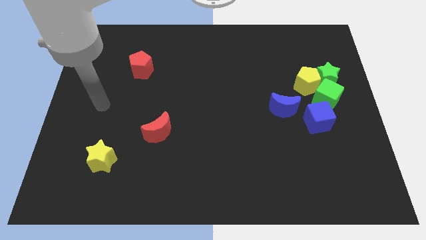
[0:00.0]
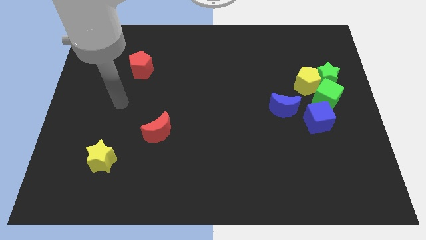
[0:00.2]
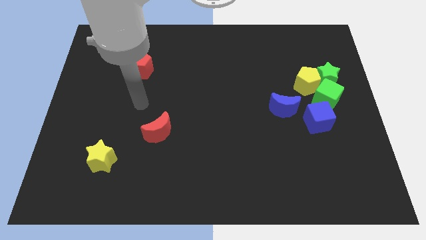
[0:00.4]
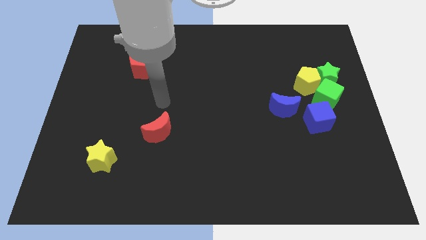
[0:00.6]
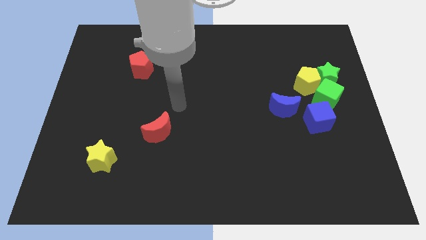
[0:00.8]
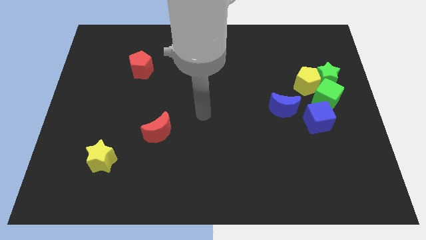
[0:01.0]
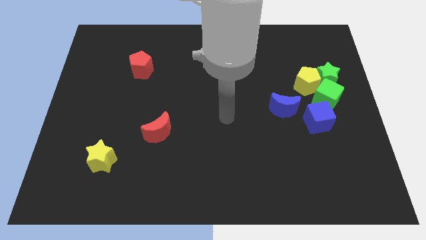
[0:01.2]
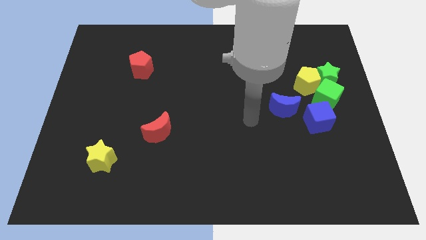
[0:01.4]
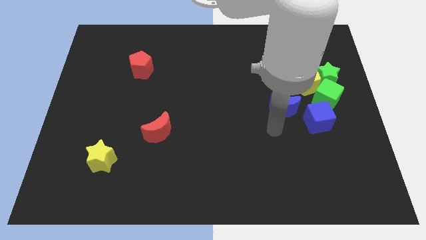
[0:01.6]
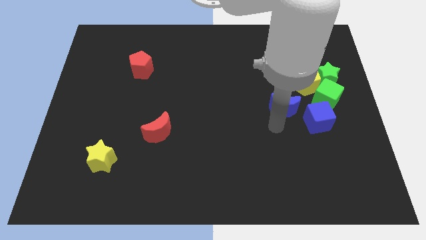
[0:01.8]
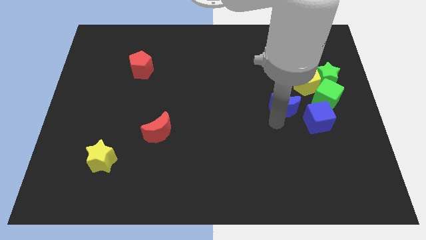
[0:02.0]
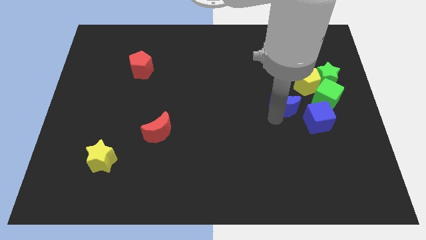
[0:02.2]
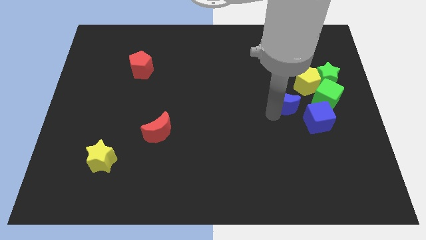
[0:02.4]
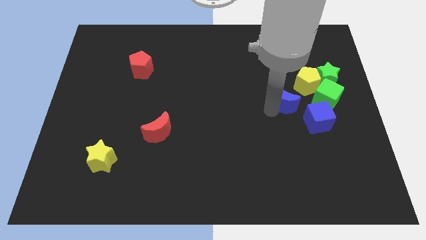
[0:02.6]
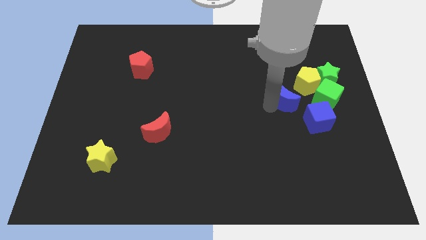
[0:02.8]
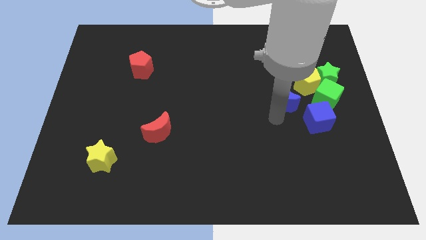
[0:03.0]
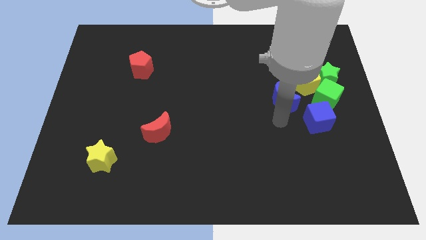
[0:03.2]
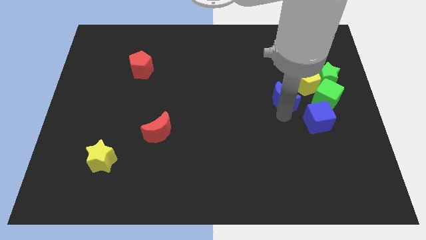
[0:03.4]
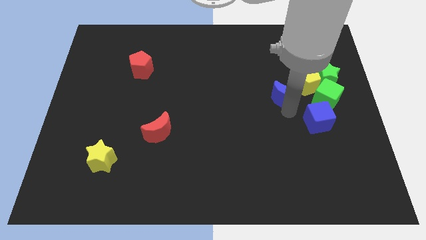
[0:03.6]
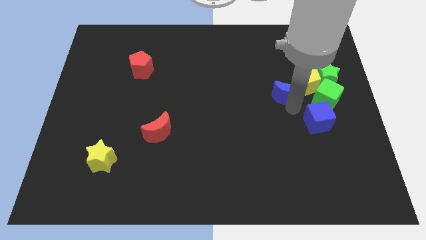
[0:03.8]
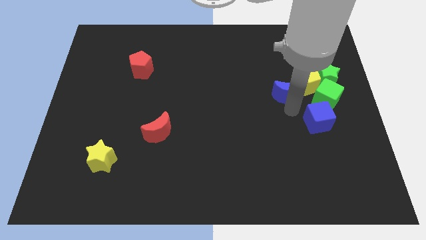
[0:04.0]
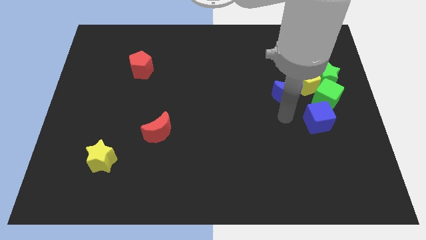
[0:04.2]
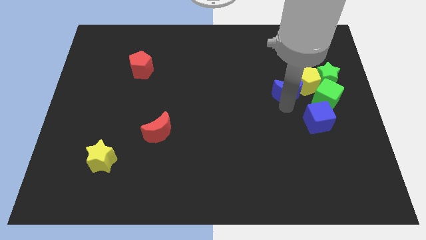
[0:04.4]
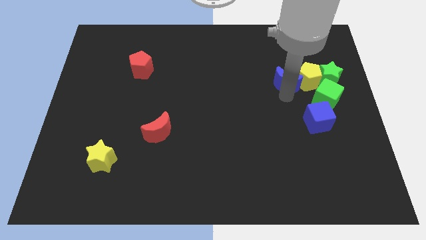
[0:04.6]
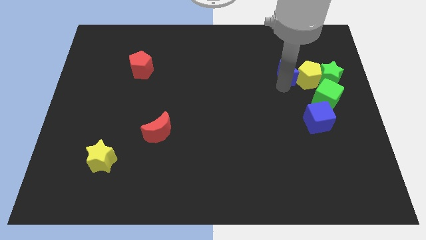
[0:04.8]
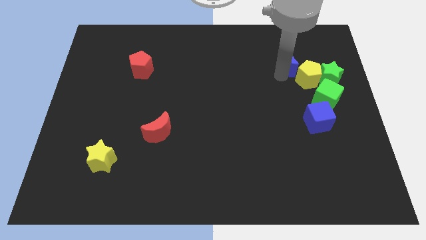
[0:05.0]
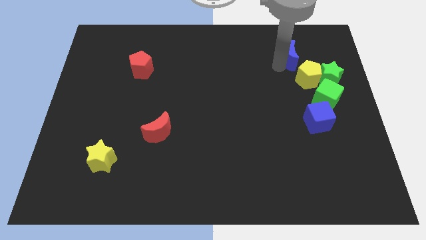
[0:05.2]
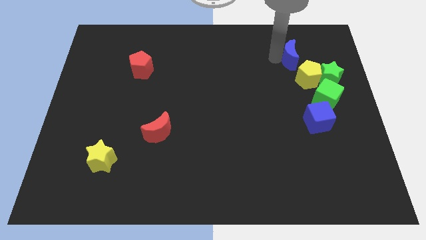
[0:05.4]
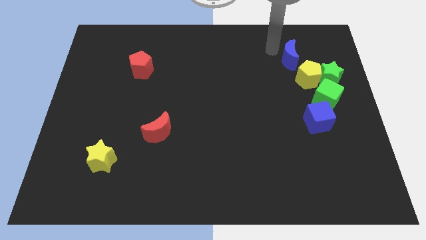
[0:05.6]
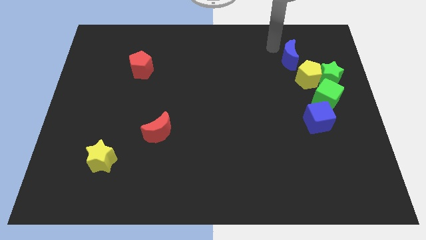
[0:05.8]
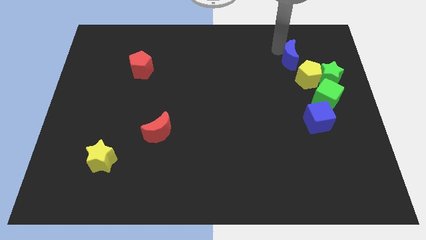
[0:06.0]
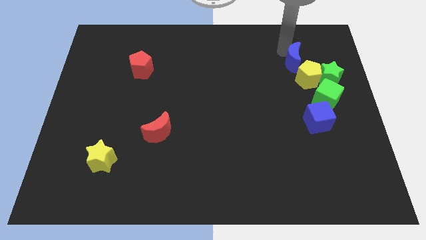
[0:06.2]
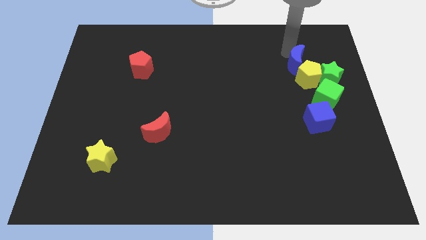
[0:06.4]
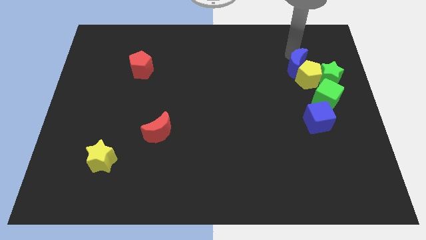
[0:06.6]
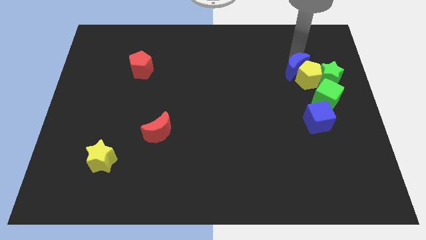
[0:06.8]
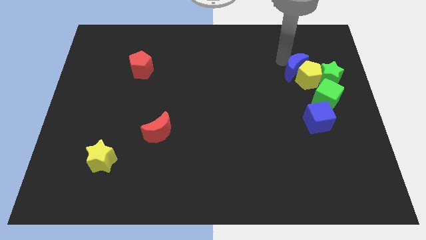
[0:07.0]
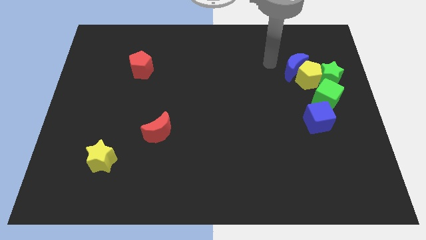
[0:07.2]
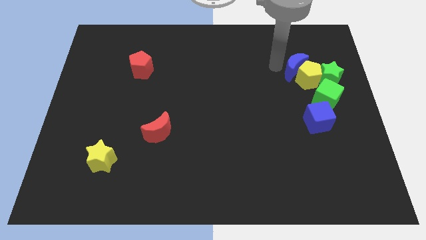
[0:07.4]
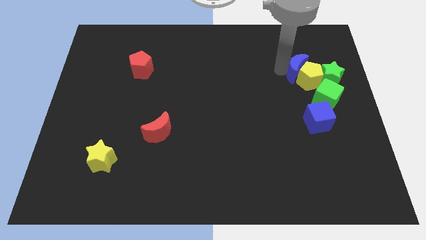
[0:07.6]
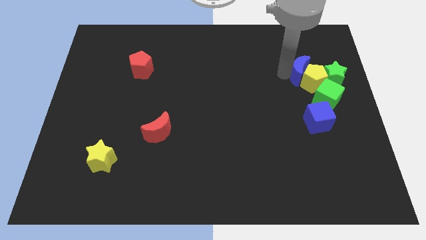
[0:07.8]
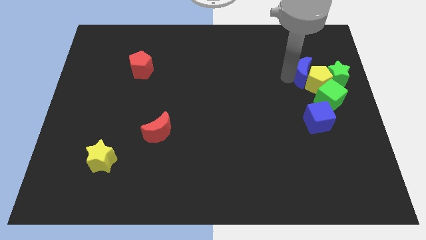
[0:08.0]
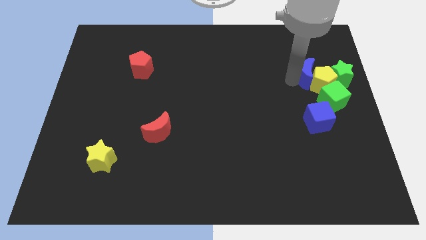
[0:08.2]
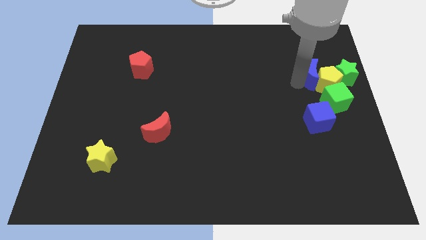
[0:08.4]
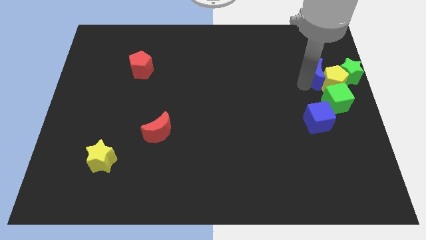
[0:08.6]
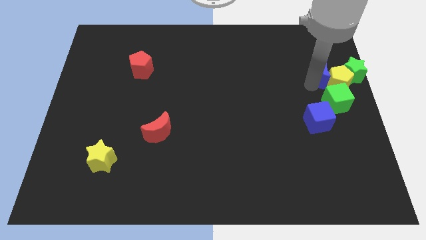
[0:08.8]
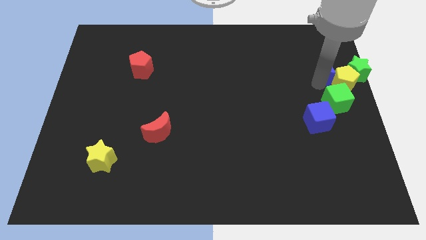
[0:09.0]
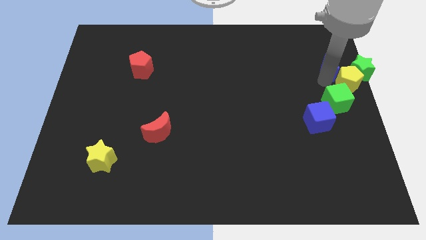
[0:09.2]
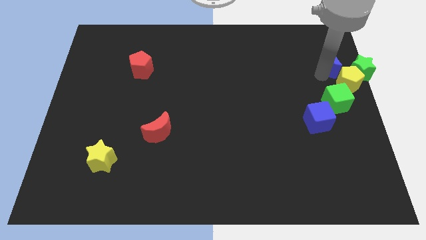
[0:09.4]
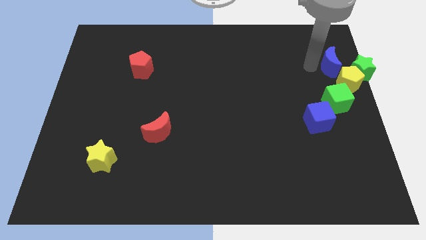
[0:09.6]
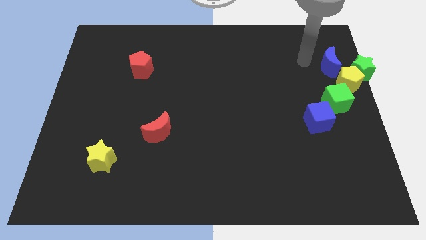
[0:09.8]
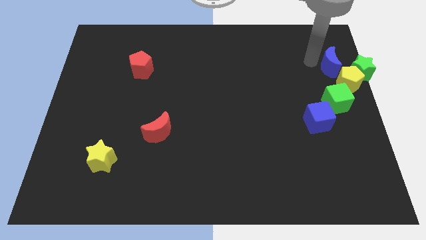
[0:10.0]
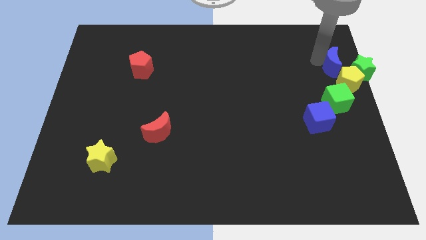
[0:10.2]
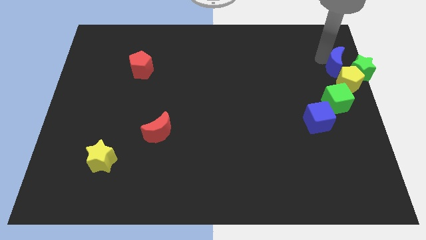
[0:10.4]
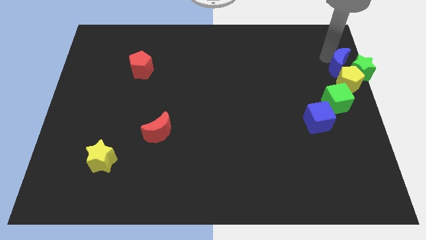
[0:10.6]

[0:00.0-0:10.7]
slide the blue moon next to the green star

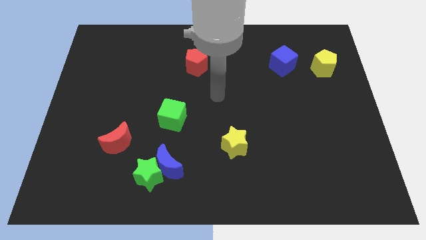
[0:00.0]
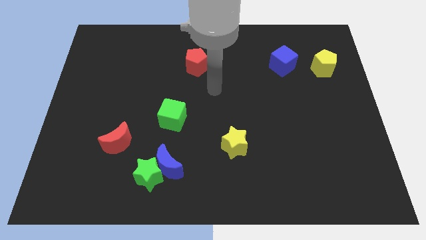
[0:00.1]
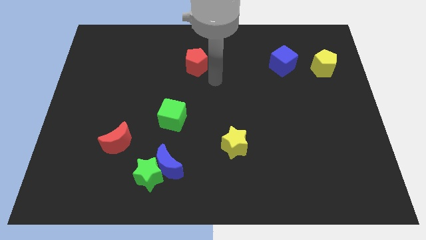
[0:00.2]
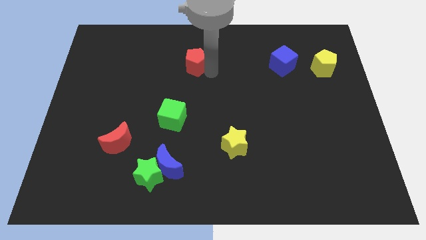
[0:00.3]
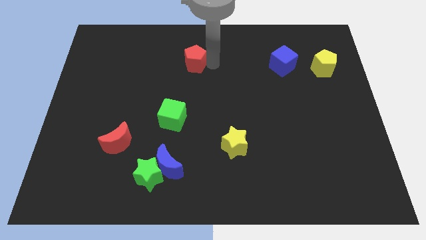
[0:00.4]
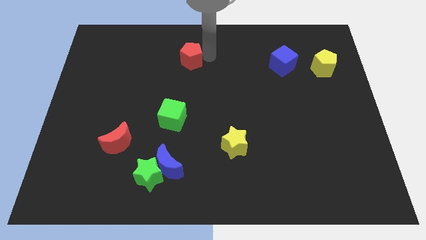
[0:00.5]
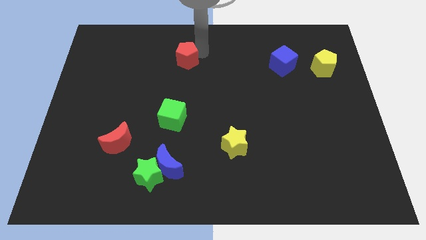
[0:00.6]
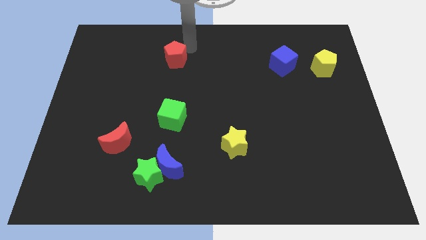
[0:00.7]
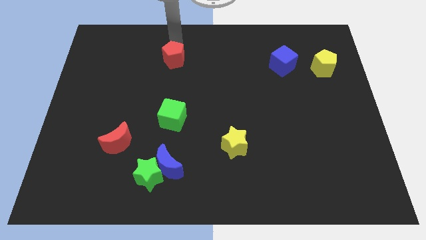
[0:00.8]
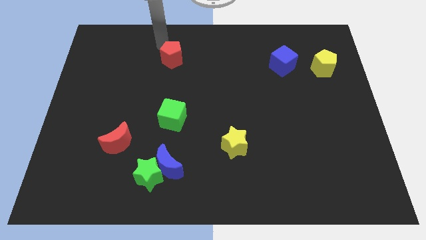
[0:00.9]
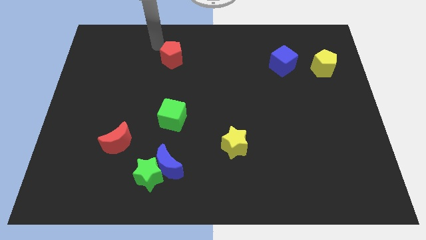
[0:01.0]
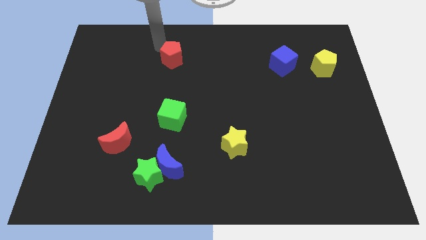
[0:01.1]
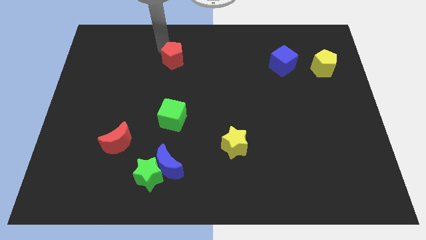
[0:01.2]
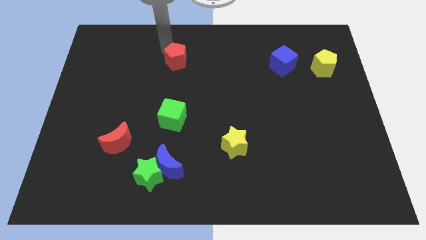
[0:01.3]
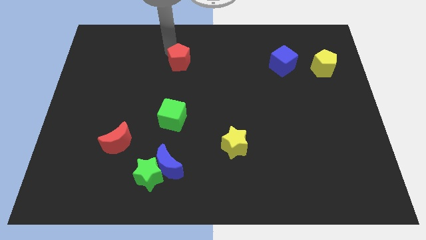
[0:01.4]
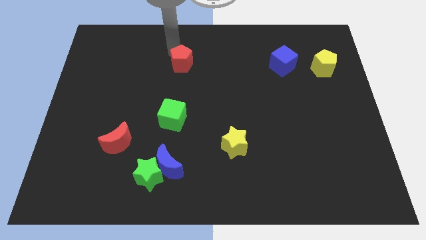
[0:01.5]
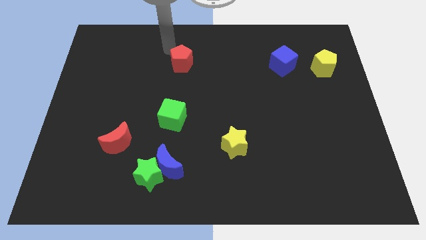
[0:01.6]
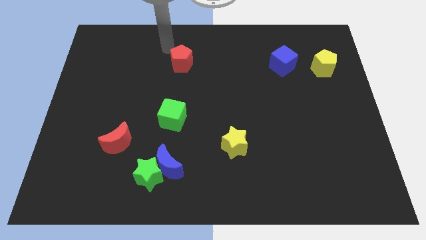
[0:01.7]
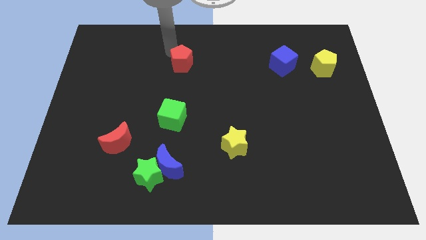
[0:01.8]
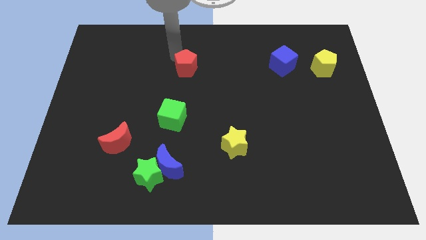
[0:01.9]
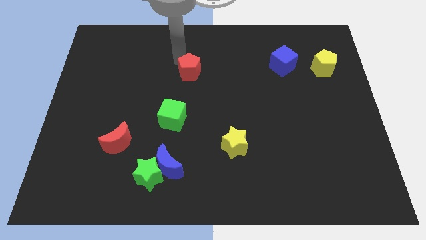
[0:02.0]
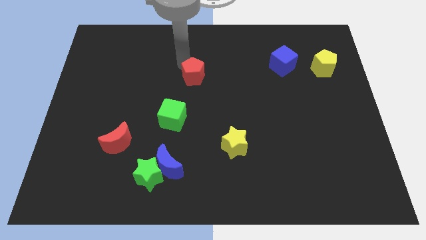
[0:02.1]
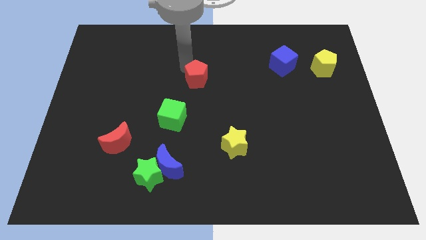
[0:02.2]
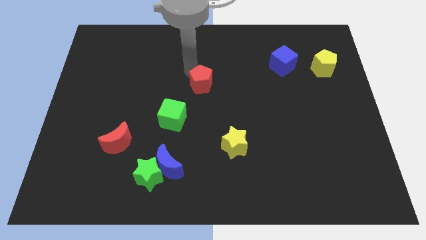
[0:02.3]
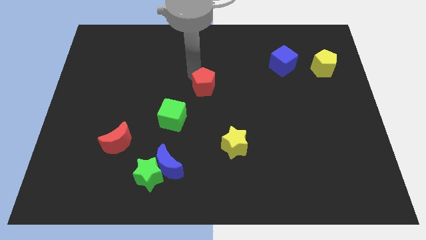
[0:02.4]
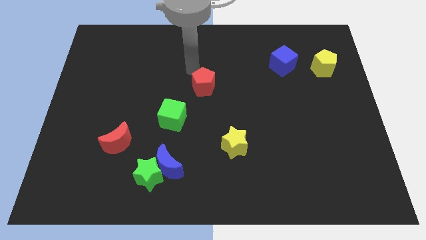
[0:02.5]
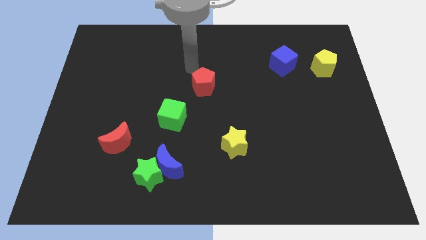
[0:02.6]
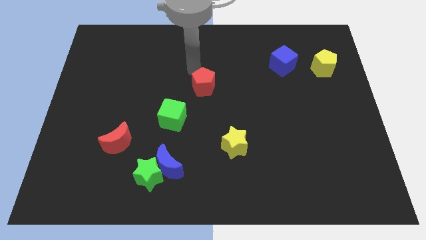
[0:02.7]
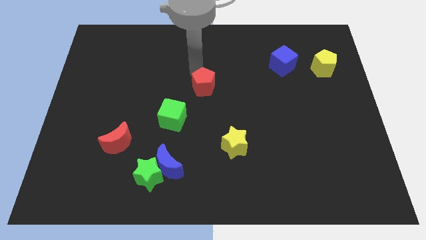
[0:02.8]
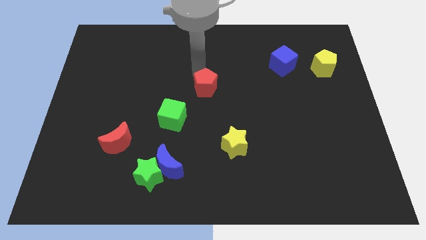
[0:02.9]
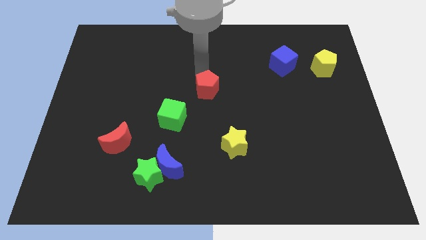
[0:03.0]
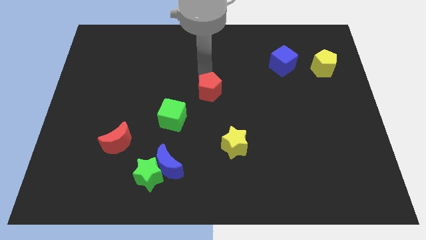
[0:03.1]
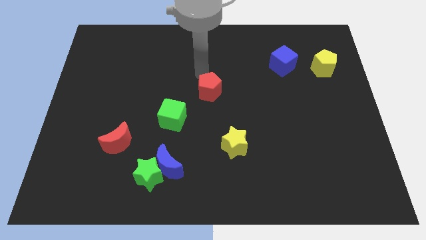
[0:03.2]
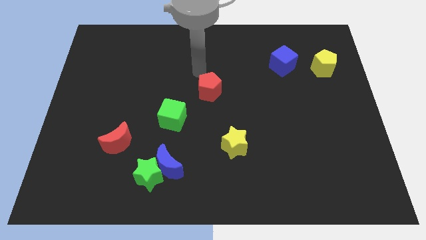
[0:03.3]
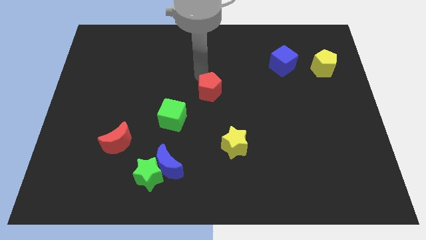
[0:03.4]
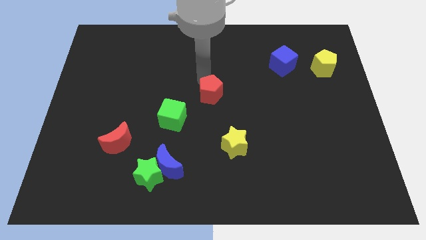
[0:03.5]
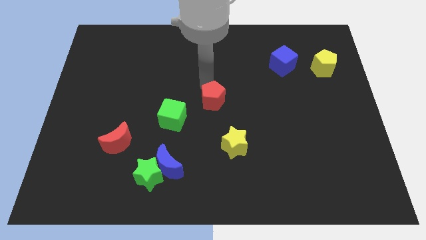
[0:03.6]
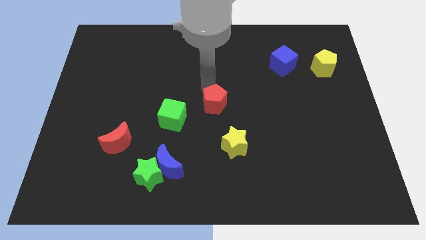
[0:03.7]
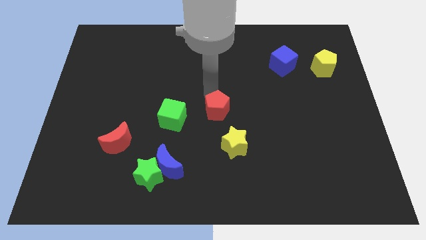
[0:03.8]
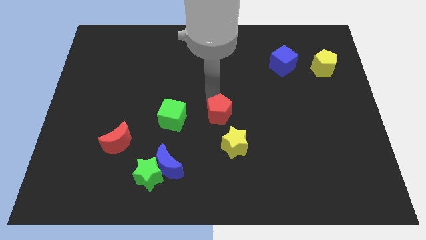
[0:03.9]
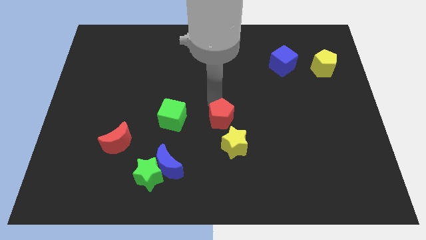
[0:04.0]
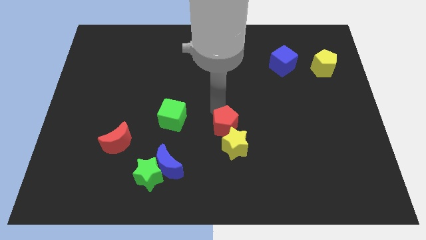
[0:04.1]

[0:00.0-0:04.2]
push the red pentagon towards the yellow star
